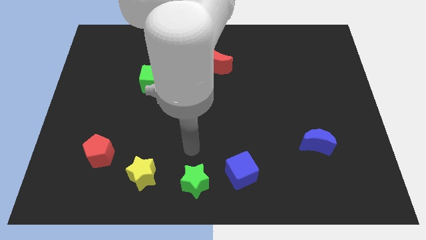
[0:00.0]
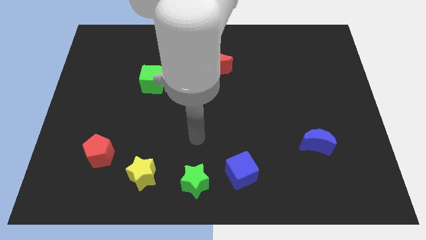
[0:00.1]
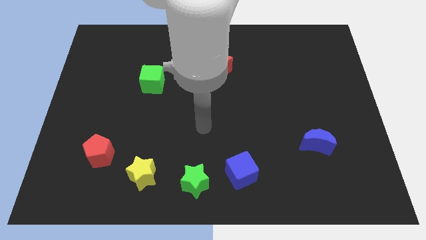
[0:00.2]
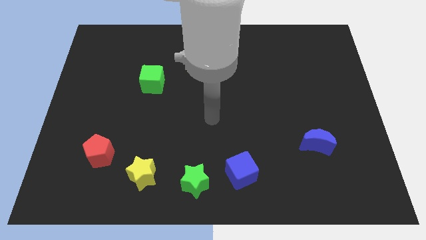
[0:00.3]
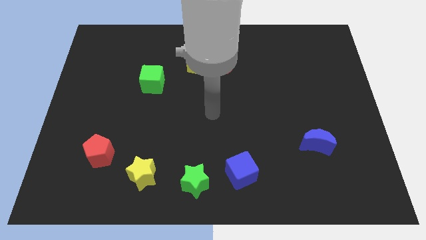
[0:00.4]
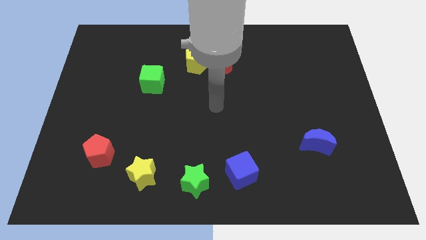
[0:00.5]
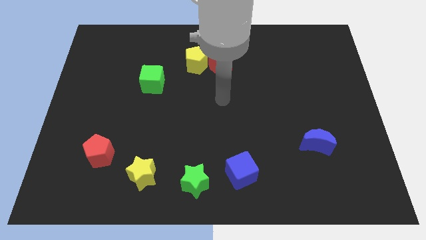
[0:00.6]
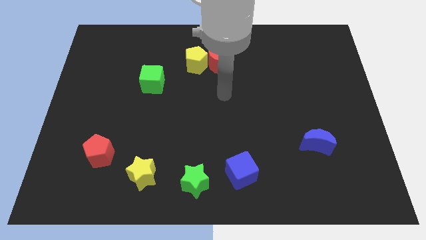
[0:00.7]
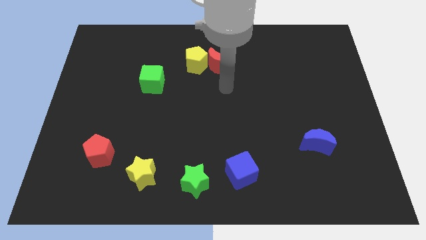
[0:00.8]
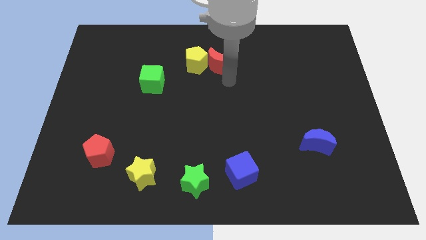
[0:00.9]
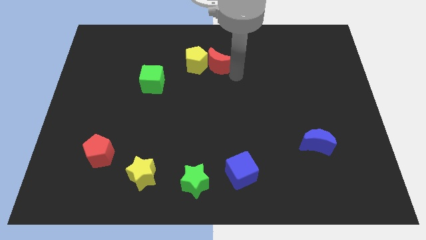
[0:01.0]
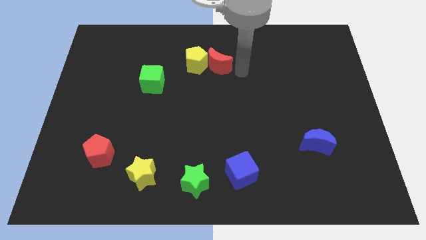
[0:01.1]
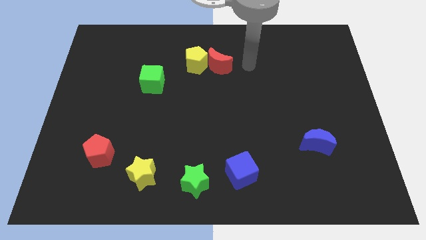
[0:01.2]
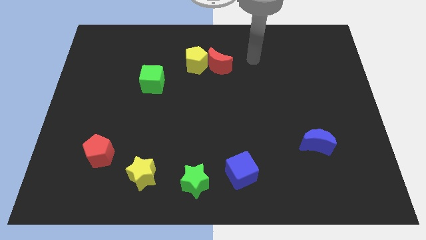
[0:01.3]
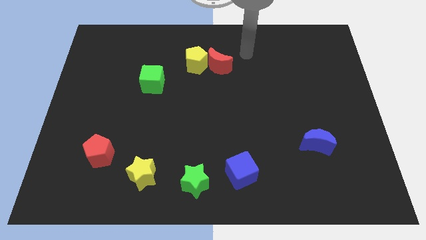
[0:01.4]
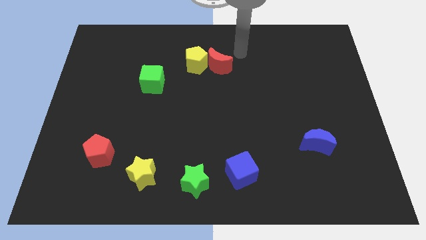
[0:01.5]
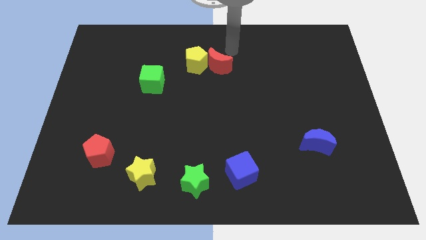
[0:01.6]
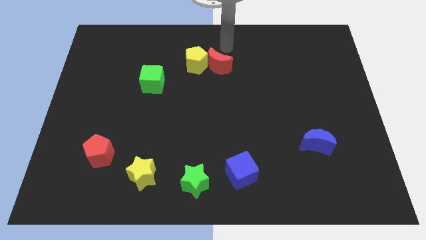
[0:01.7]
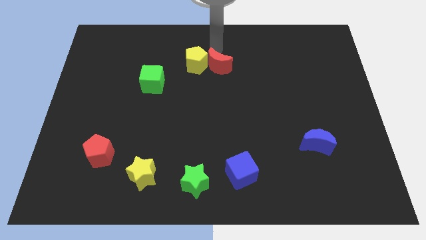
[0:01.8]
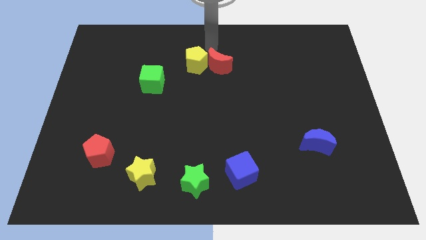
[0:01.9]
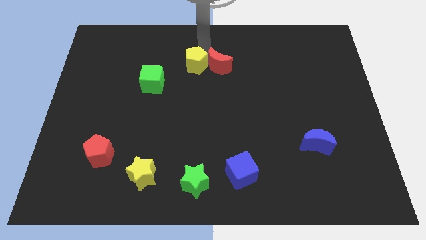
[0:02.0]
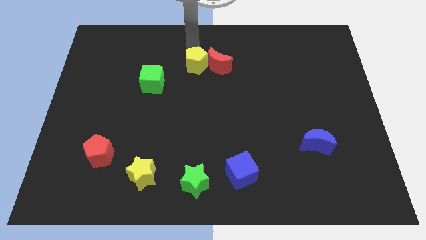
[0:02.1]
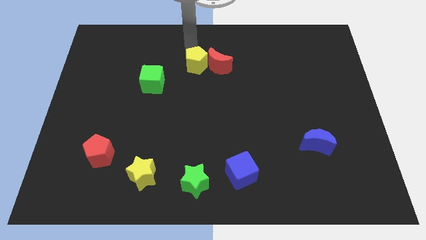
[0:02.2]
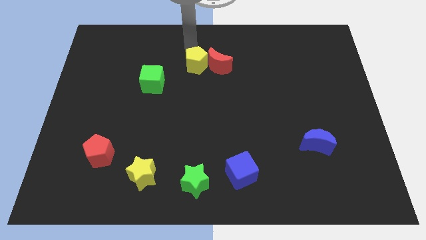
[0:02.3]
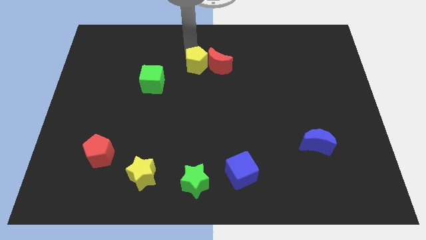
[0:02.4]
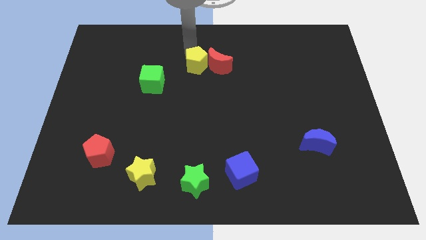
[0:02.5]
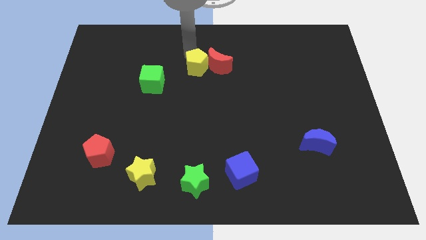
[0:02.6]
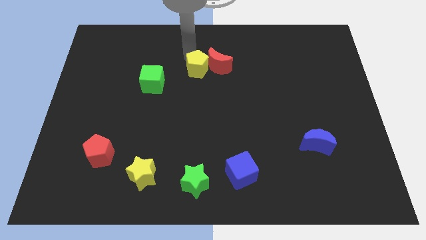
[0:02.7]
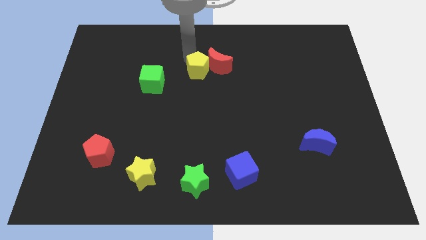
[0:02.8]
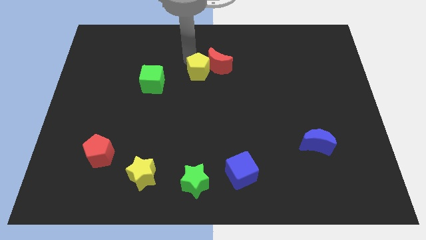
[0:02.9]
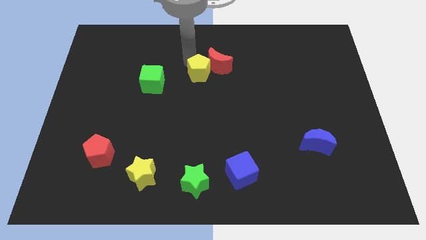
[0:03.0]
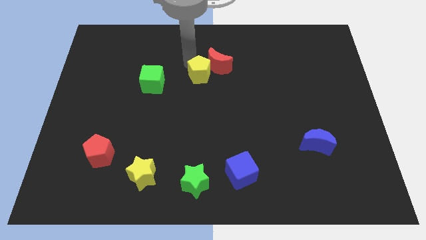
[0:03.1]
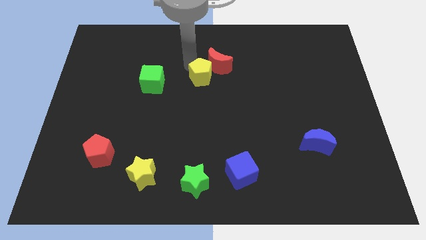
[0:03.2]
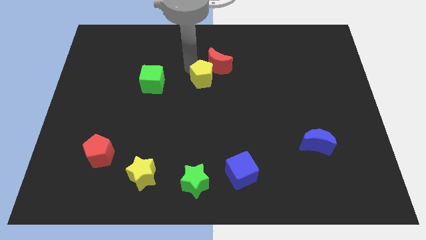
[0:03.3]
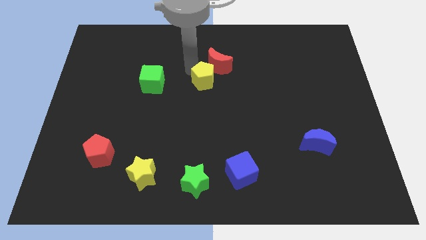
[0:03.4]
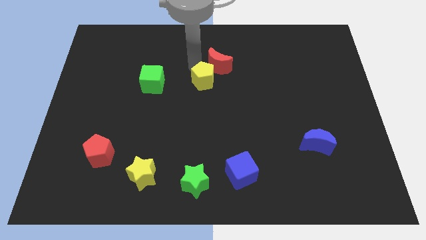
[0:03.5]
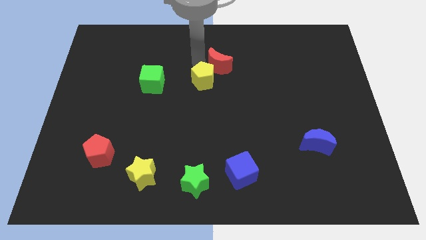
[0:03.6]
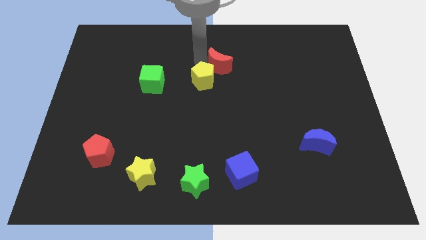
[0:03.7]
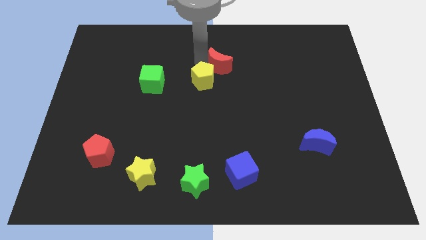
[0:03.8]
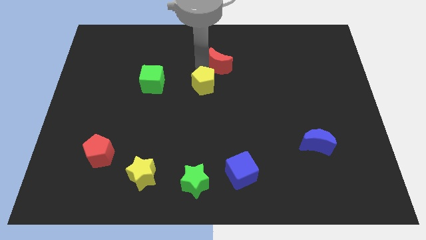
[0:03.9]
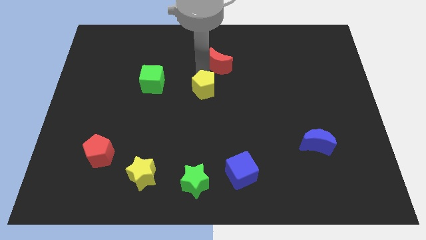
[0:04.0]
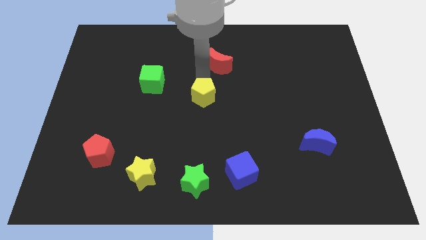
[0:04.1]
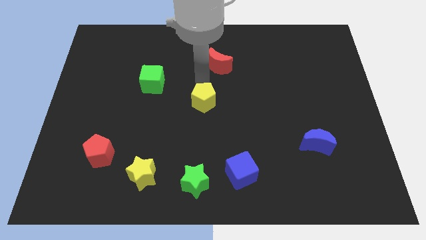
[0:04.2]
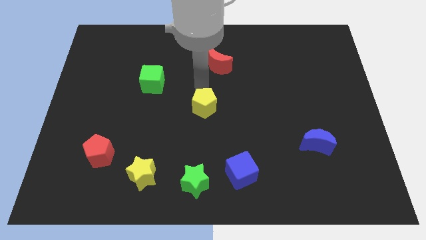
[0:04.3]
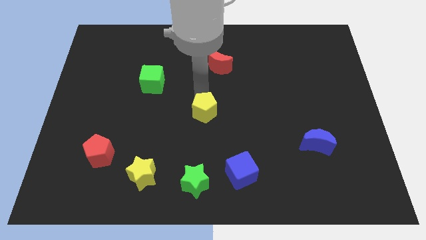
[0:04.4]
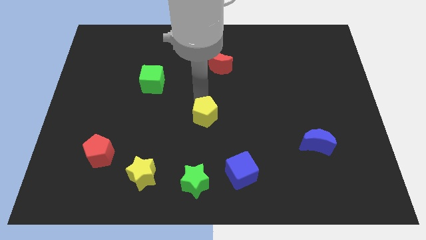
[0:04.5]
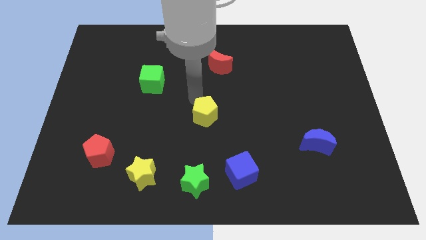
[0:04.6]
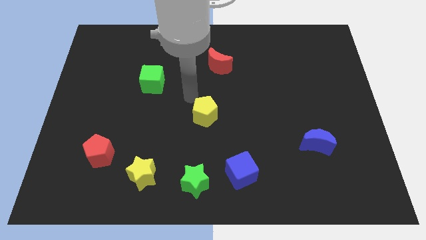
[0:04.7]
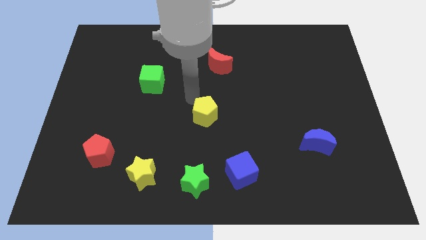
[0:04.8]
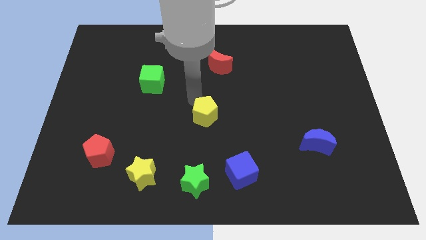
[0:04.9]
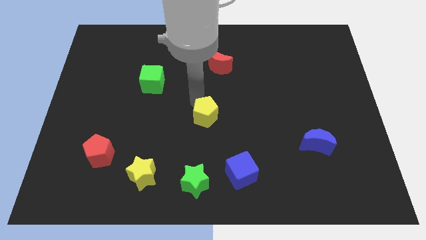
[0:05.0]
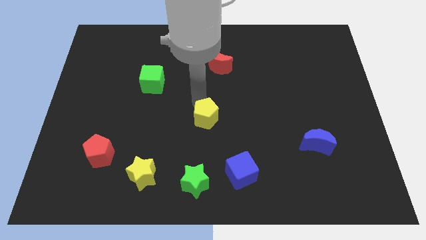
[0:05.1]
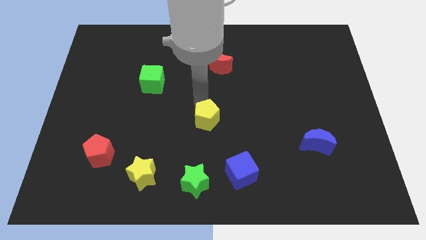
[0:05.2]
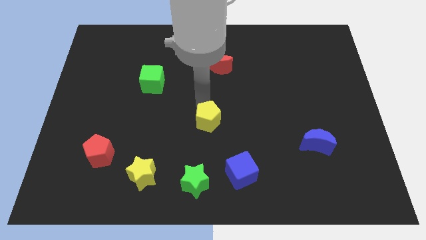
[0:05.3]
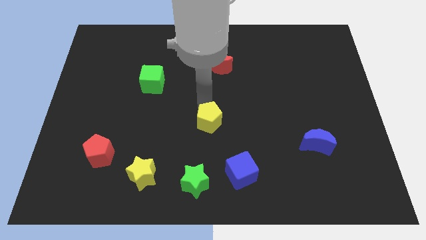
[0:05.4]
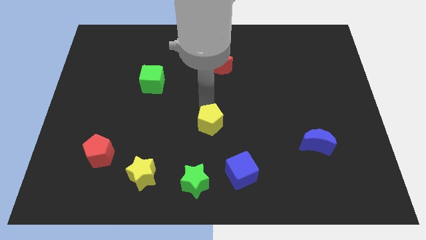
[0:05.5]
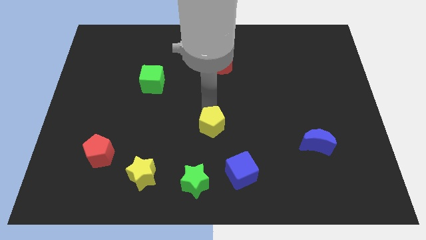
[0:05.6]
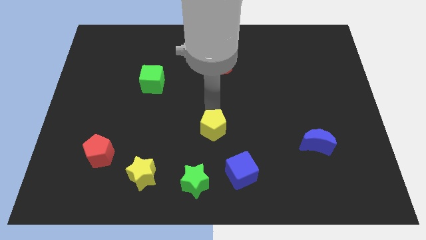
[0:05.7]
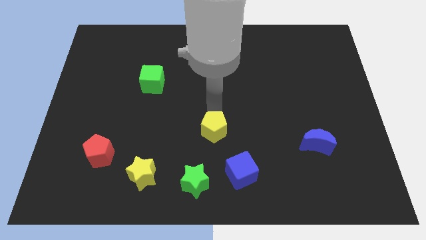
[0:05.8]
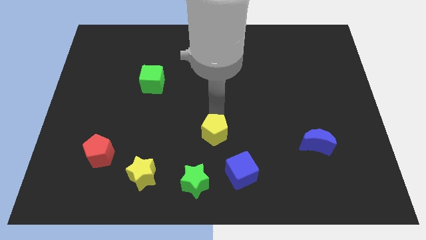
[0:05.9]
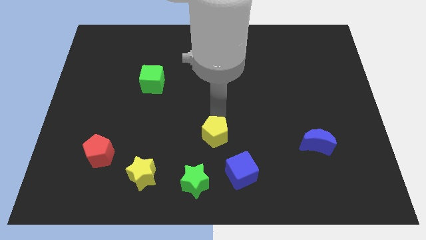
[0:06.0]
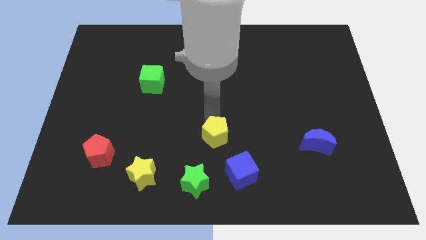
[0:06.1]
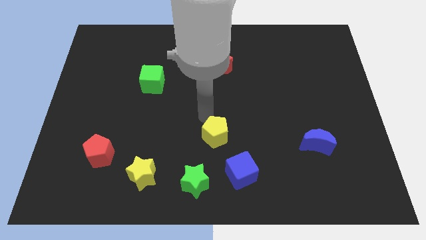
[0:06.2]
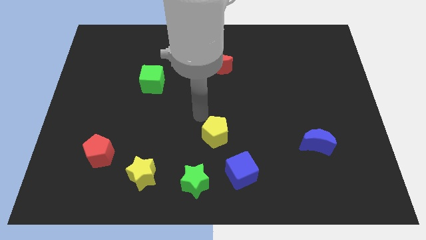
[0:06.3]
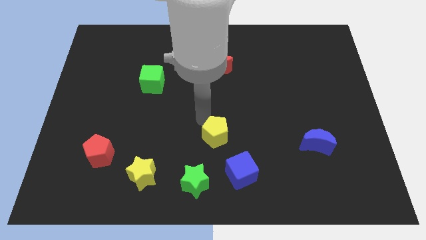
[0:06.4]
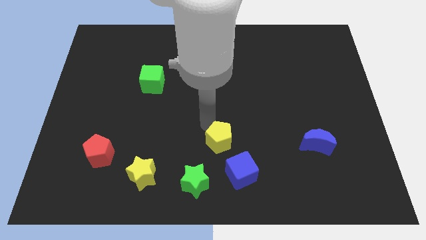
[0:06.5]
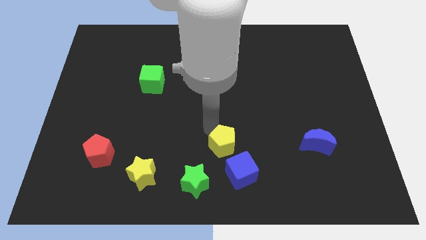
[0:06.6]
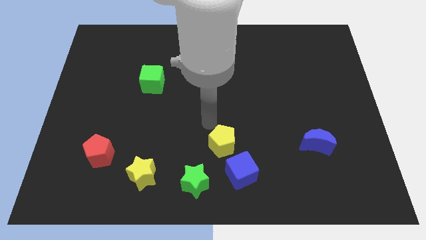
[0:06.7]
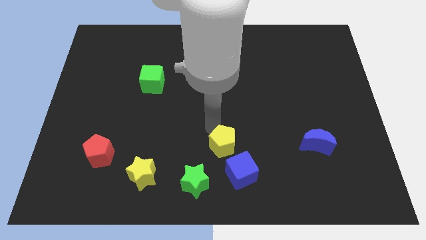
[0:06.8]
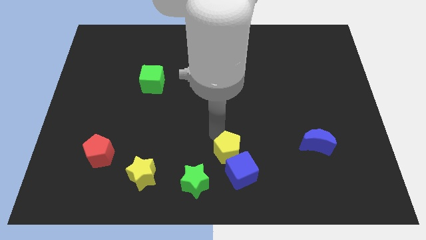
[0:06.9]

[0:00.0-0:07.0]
move the yellow pentagon towards the blue cube
